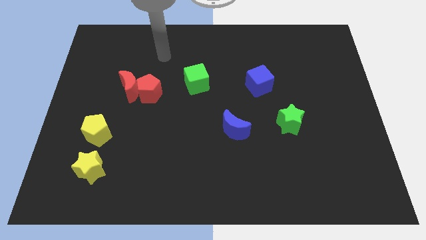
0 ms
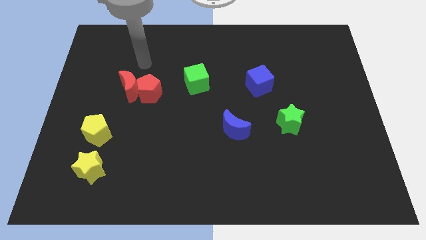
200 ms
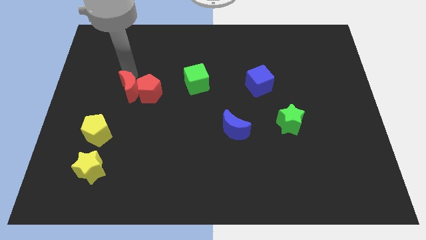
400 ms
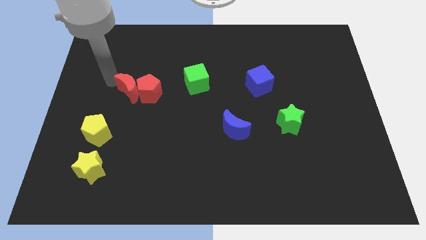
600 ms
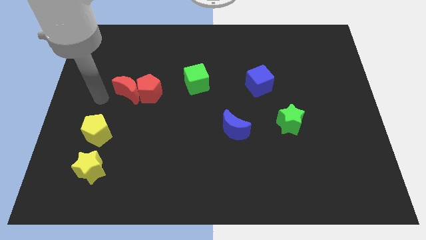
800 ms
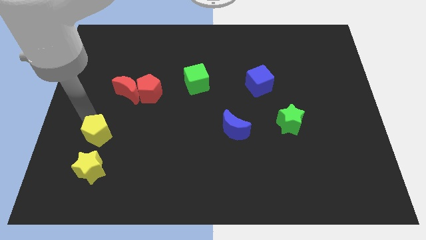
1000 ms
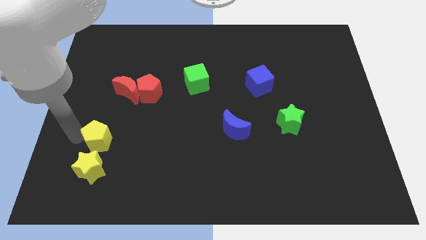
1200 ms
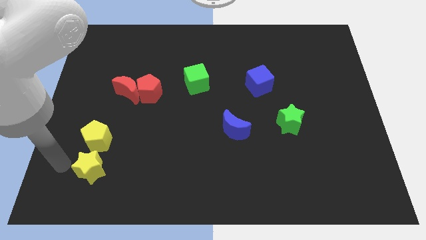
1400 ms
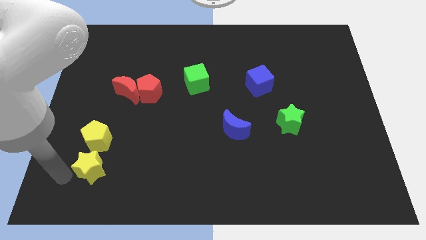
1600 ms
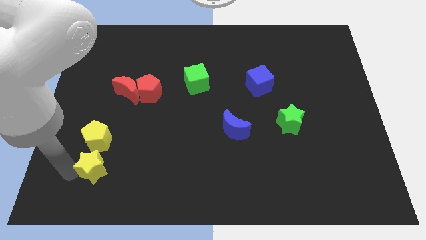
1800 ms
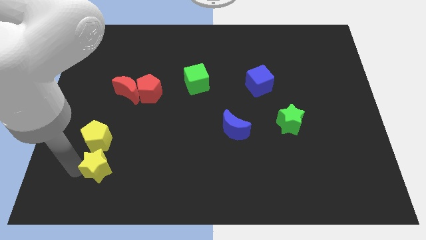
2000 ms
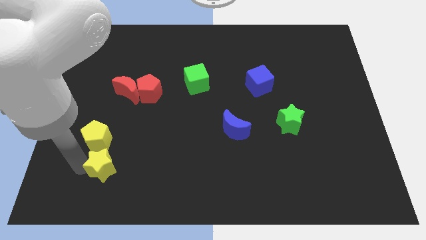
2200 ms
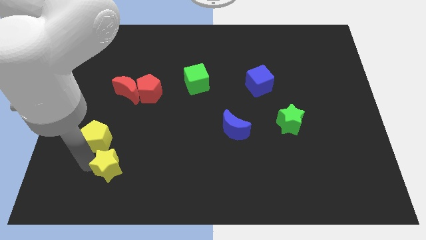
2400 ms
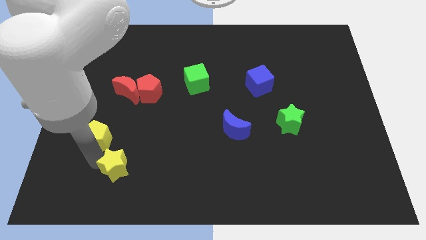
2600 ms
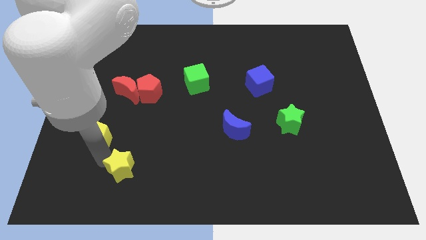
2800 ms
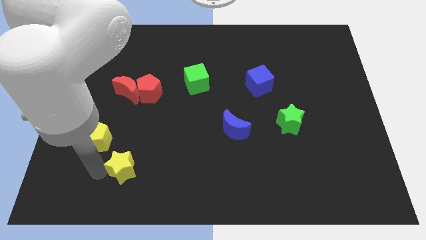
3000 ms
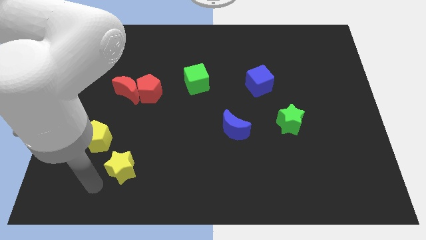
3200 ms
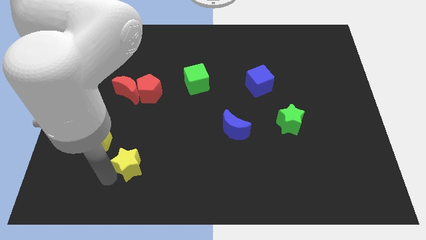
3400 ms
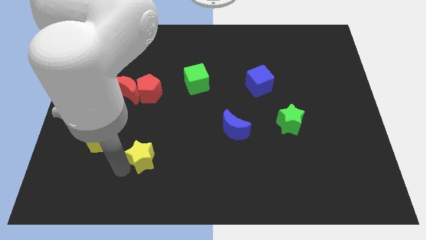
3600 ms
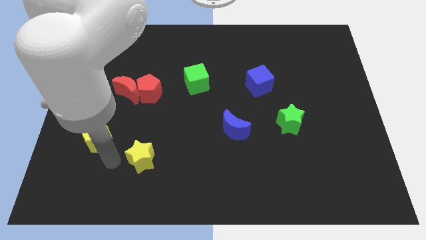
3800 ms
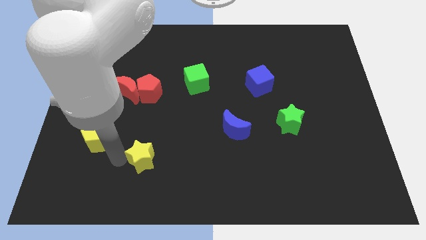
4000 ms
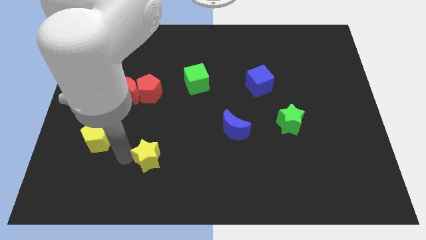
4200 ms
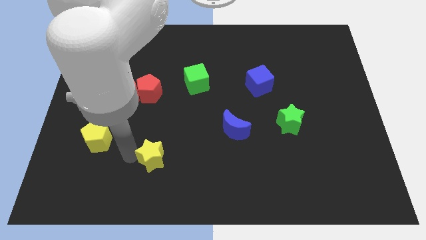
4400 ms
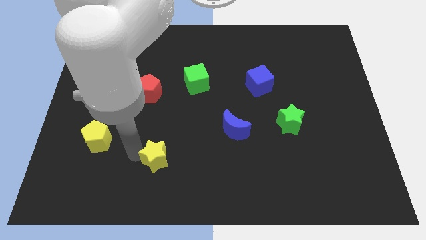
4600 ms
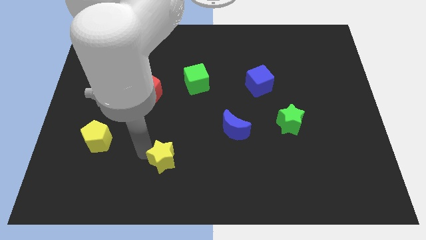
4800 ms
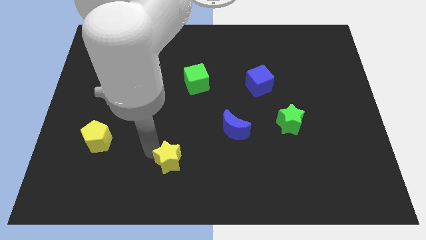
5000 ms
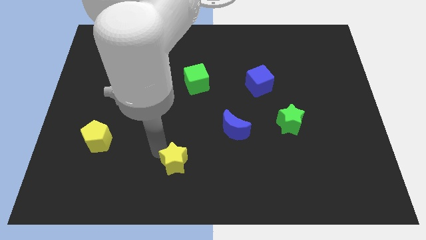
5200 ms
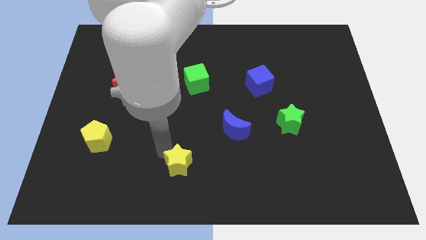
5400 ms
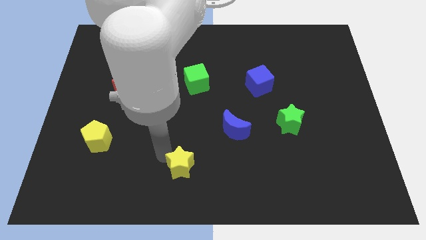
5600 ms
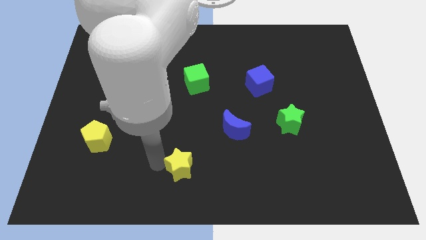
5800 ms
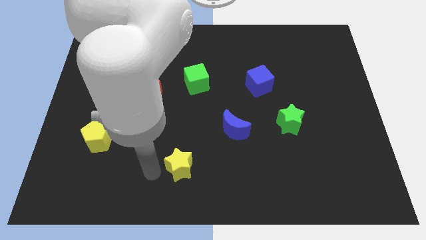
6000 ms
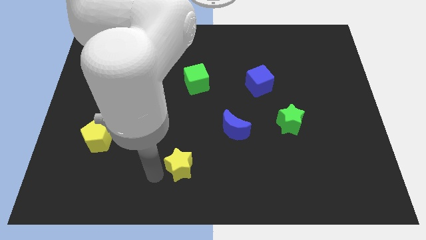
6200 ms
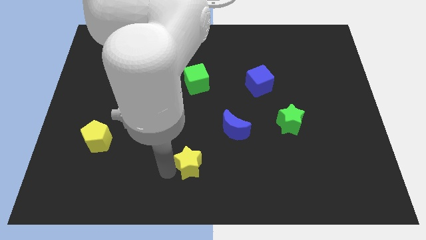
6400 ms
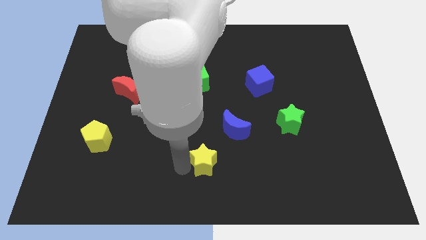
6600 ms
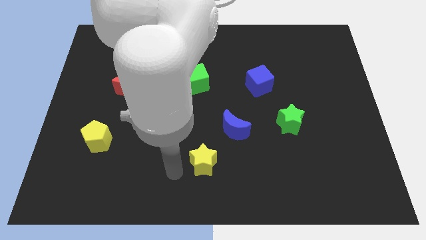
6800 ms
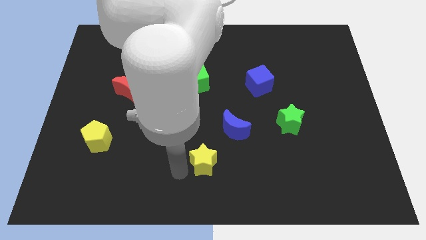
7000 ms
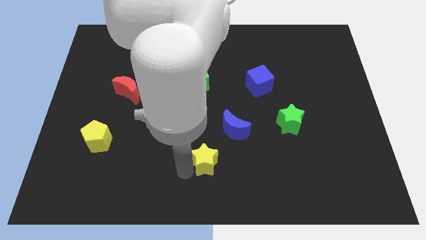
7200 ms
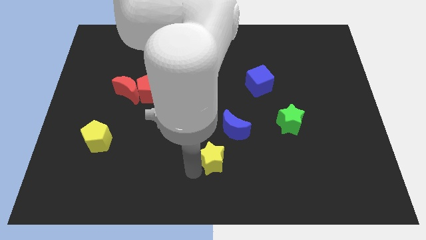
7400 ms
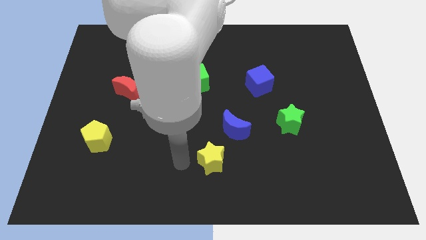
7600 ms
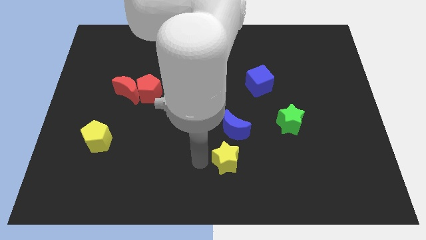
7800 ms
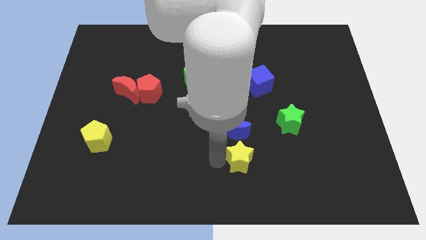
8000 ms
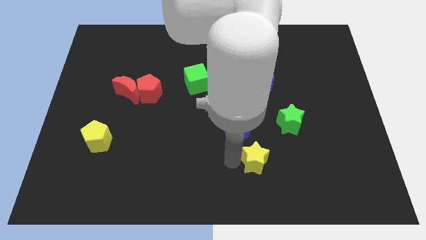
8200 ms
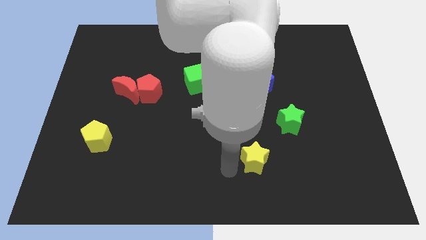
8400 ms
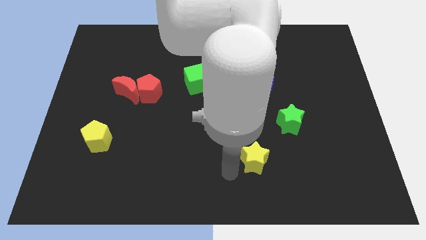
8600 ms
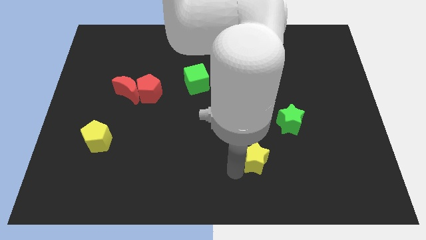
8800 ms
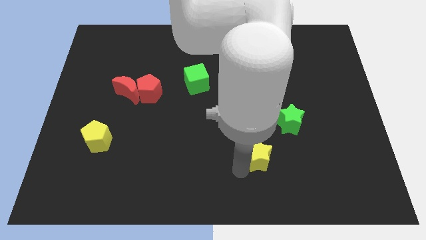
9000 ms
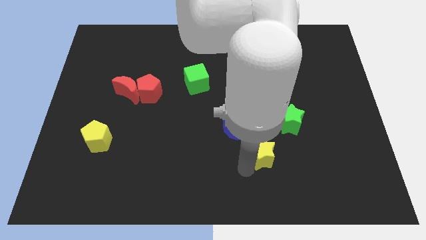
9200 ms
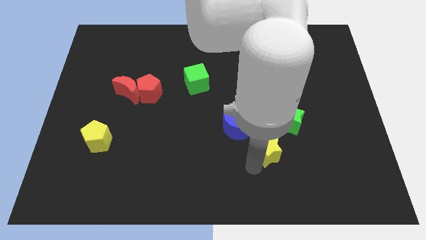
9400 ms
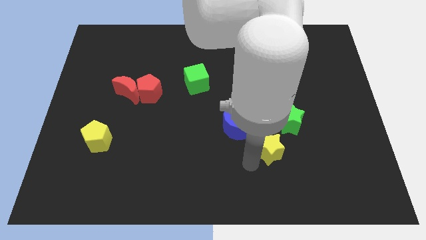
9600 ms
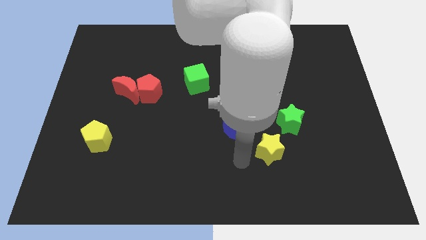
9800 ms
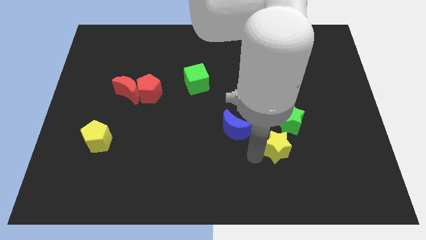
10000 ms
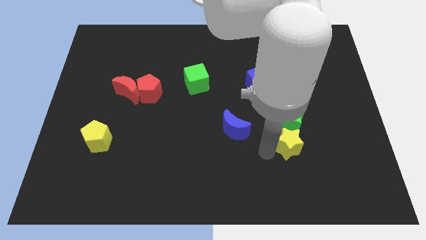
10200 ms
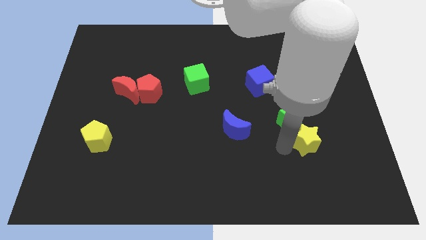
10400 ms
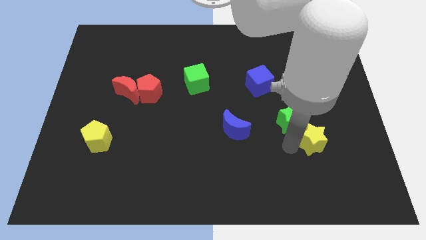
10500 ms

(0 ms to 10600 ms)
slide the yellow star to the right of the green star

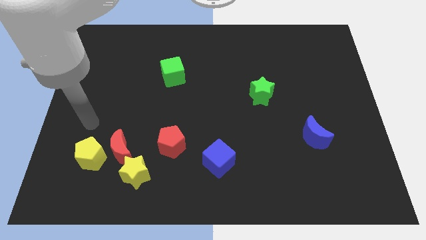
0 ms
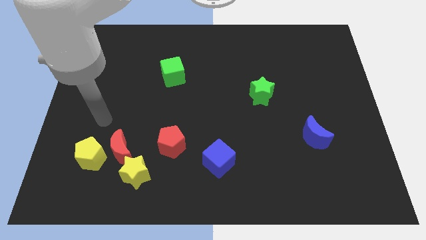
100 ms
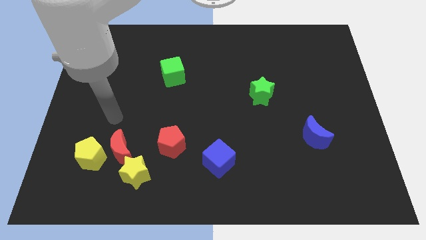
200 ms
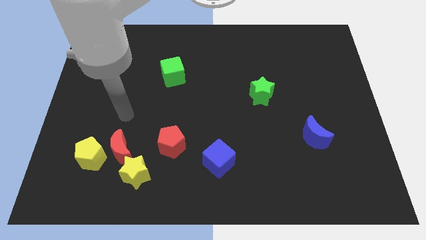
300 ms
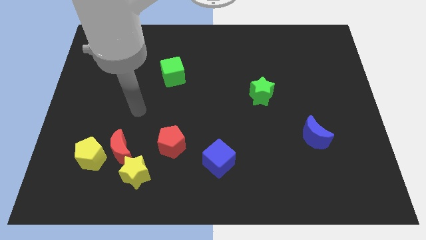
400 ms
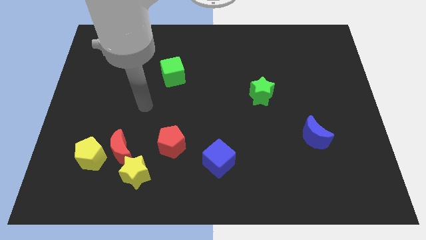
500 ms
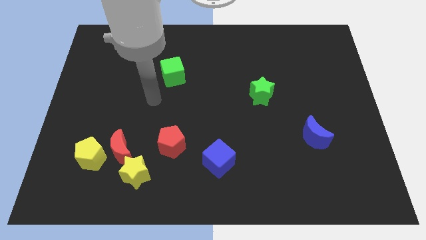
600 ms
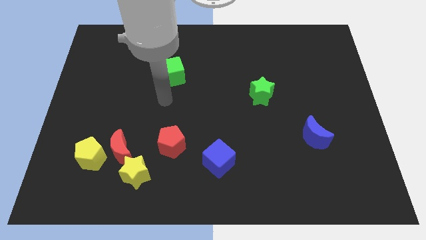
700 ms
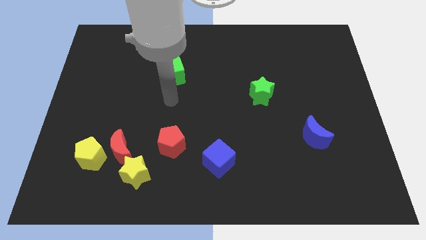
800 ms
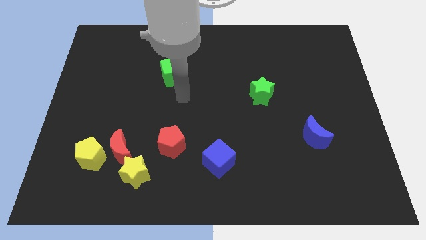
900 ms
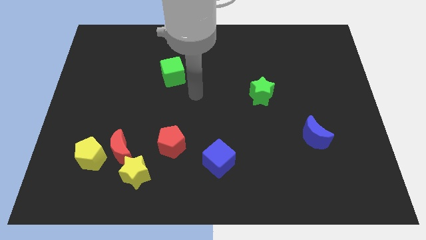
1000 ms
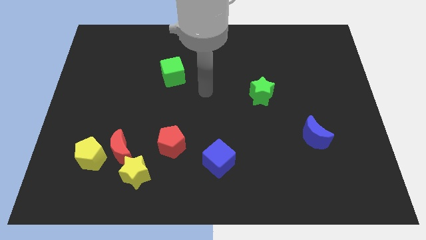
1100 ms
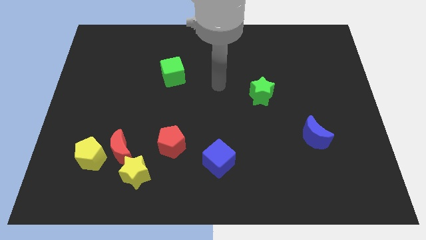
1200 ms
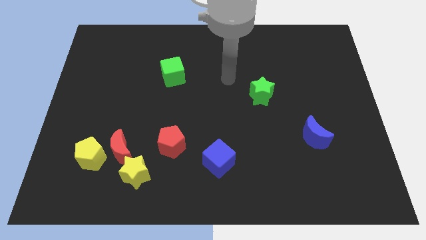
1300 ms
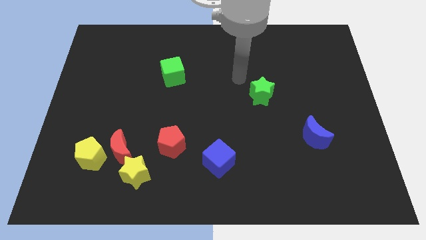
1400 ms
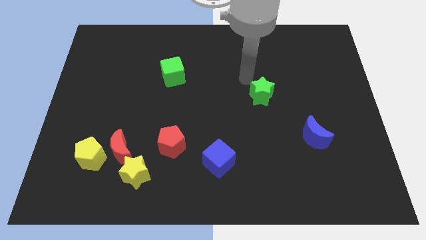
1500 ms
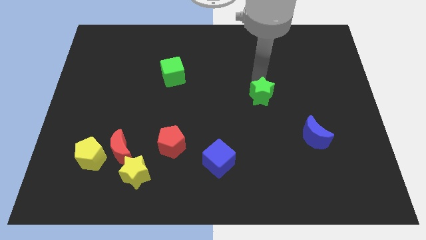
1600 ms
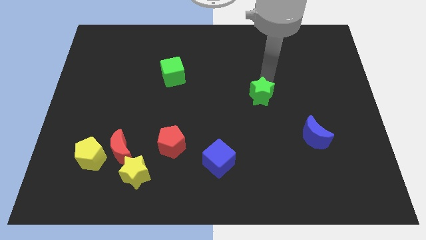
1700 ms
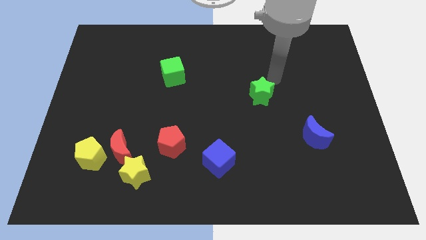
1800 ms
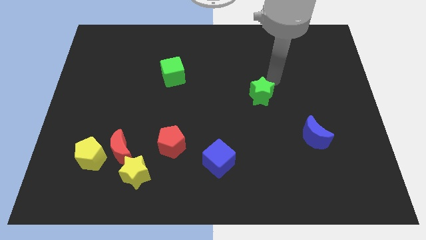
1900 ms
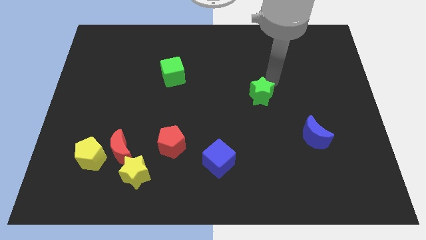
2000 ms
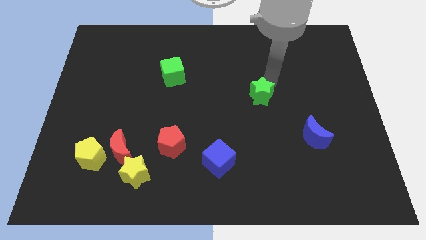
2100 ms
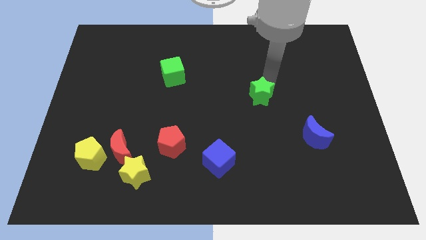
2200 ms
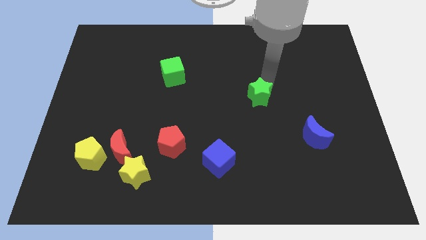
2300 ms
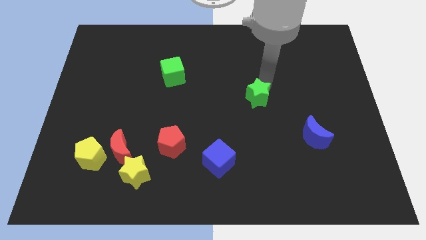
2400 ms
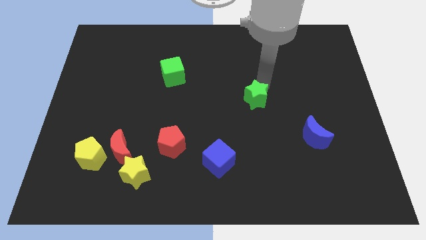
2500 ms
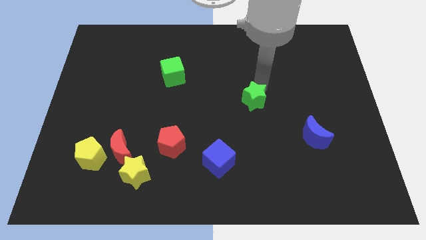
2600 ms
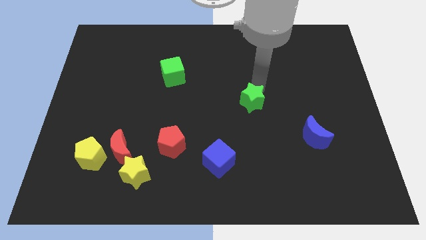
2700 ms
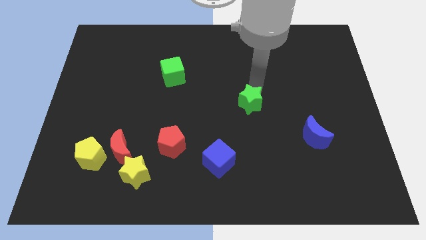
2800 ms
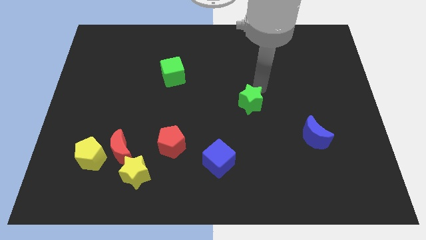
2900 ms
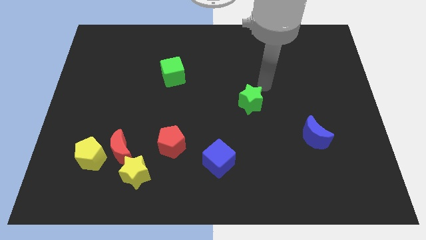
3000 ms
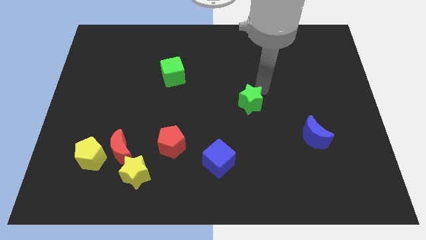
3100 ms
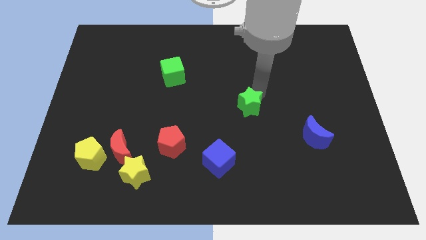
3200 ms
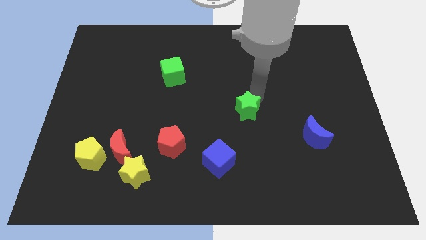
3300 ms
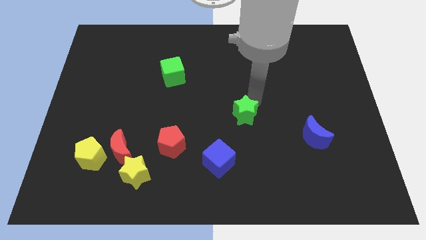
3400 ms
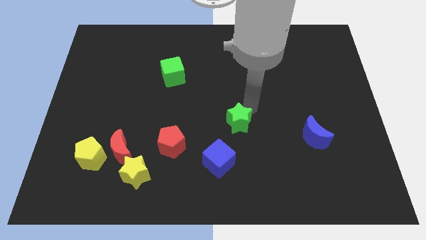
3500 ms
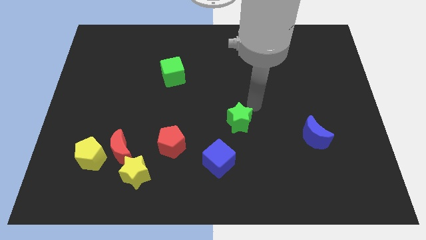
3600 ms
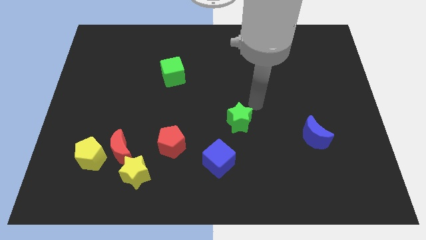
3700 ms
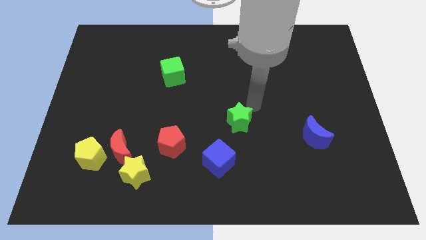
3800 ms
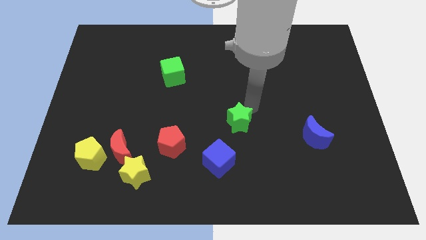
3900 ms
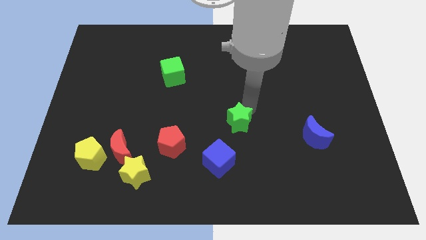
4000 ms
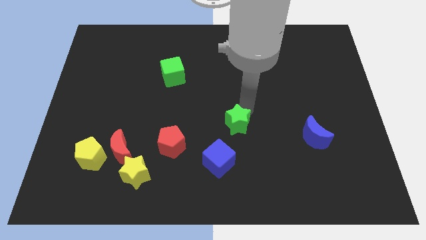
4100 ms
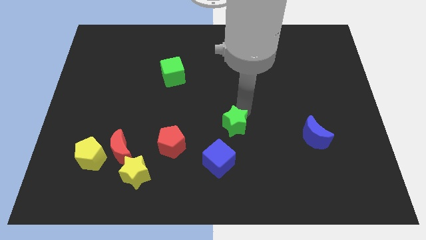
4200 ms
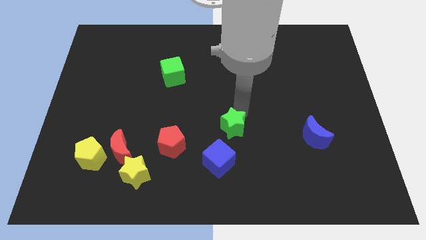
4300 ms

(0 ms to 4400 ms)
slide the green star right of the red pentagon
